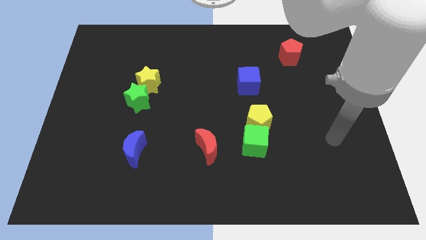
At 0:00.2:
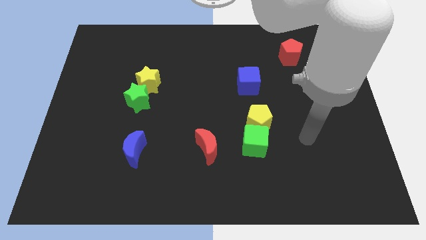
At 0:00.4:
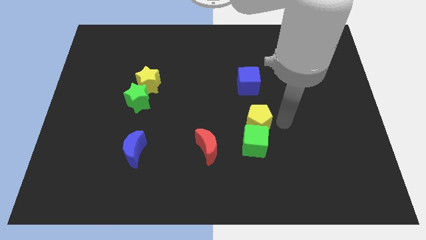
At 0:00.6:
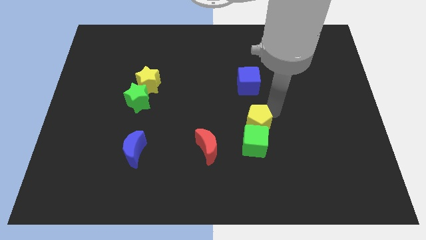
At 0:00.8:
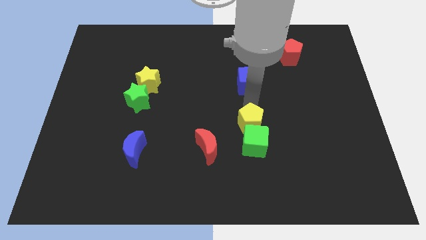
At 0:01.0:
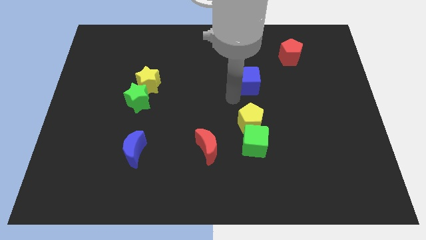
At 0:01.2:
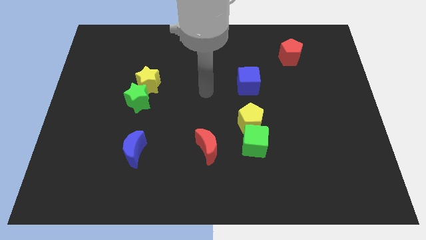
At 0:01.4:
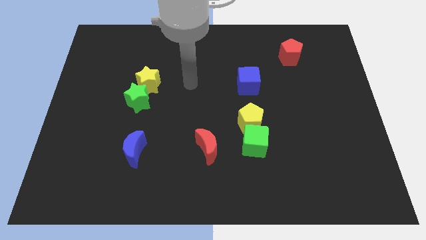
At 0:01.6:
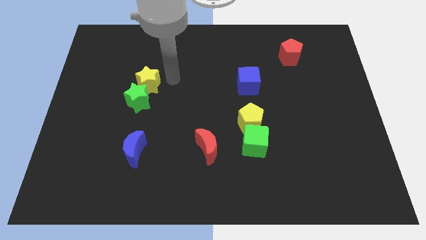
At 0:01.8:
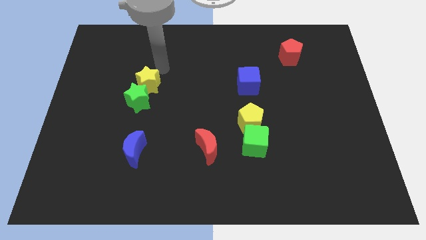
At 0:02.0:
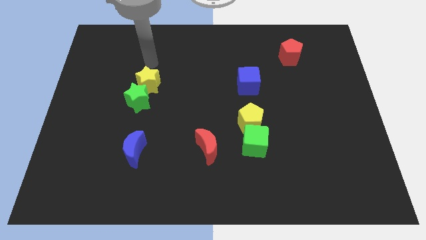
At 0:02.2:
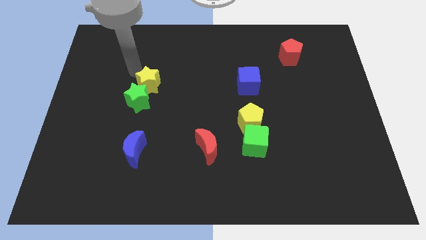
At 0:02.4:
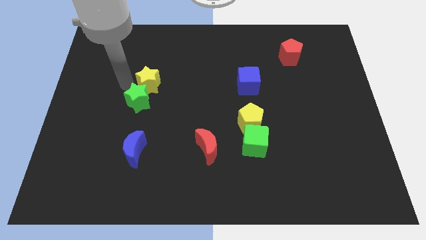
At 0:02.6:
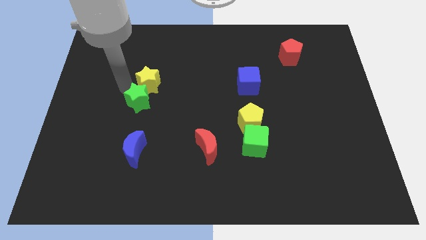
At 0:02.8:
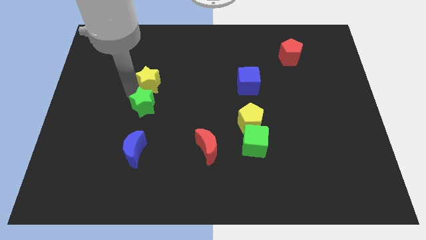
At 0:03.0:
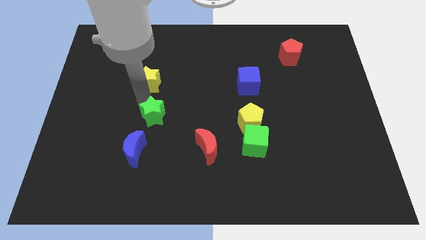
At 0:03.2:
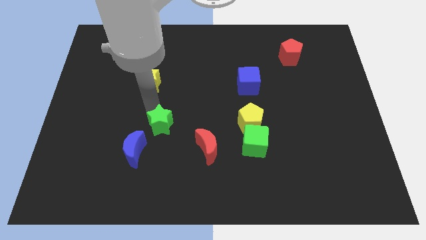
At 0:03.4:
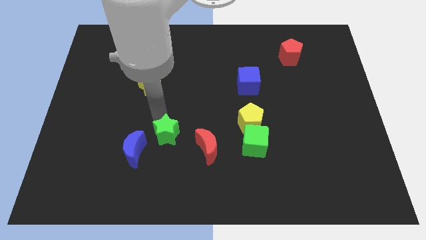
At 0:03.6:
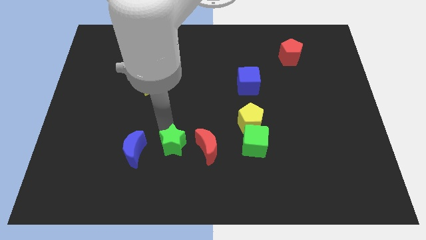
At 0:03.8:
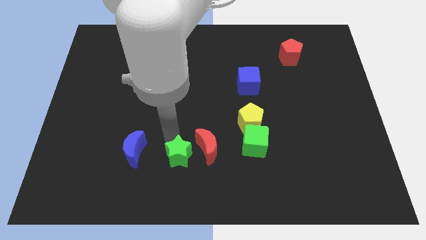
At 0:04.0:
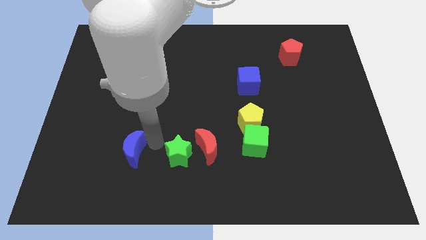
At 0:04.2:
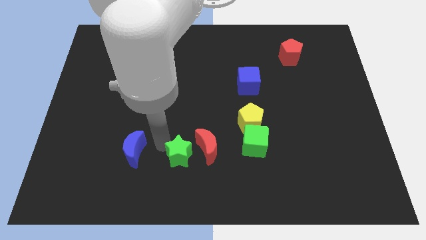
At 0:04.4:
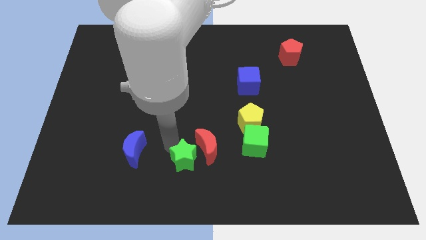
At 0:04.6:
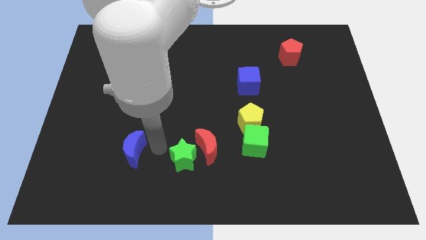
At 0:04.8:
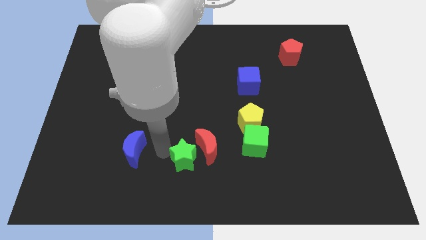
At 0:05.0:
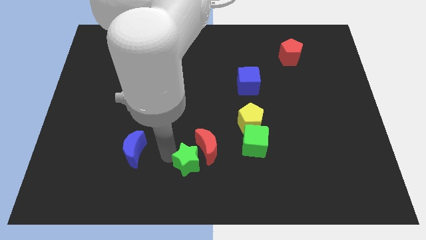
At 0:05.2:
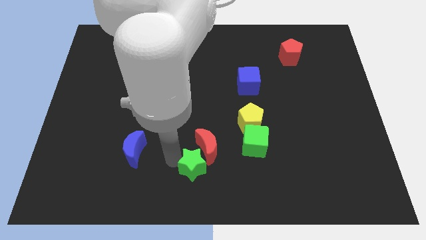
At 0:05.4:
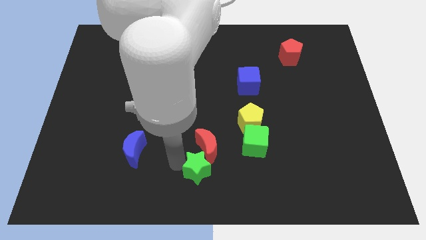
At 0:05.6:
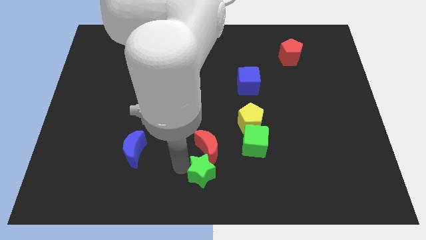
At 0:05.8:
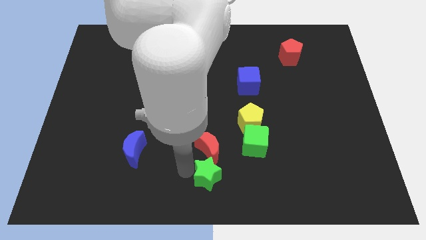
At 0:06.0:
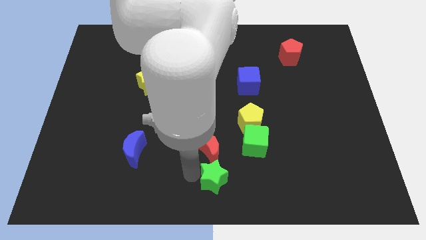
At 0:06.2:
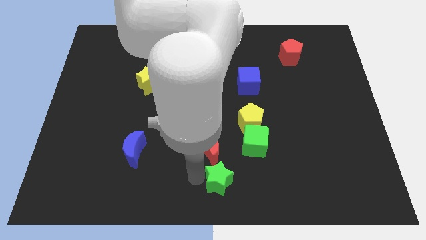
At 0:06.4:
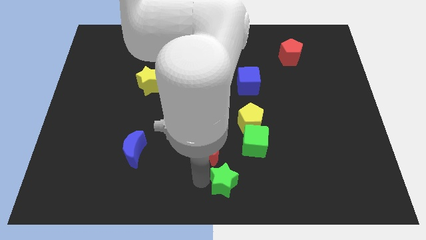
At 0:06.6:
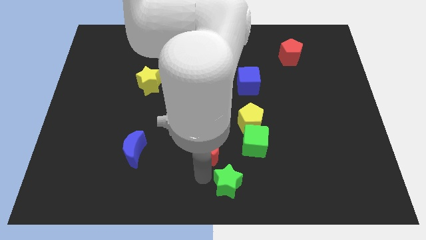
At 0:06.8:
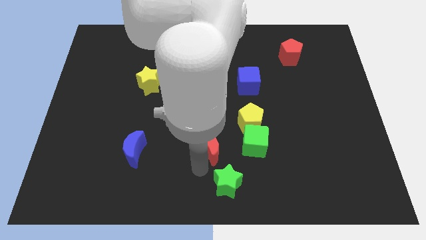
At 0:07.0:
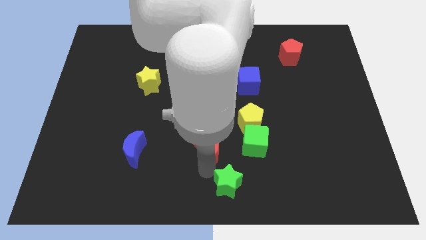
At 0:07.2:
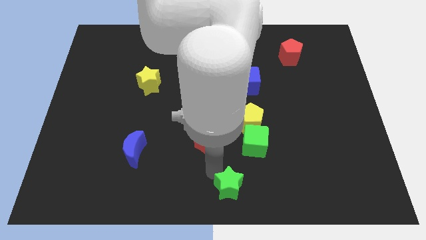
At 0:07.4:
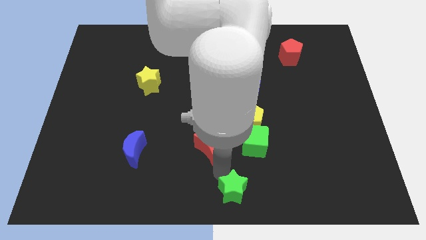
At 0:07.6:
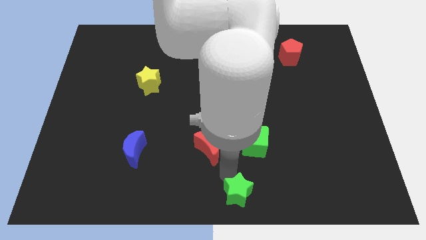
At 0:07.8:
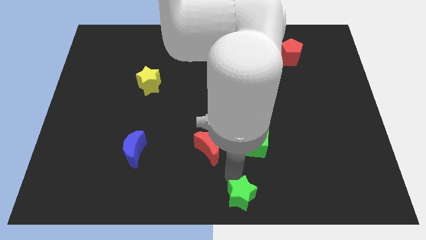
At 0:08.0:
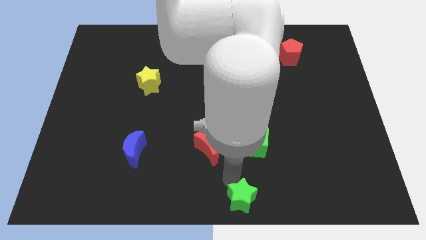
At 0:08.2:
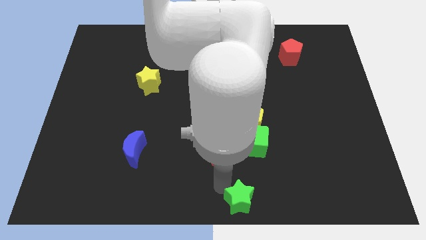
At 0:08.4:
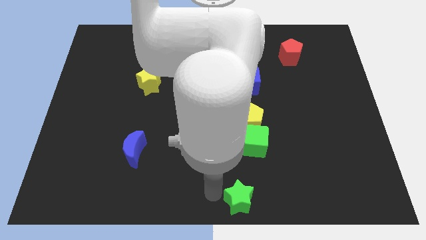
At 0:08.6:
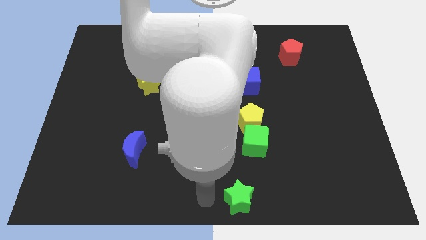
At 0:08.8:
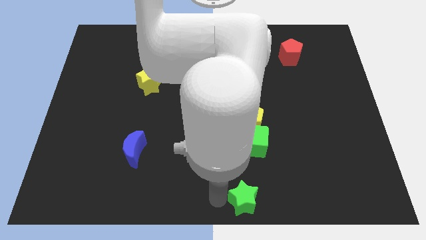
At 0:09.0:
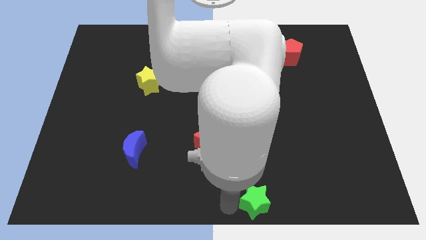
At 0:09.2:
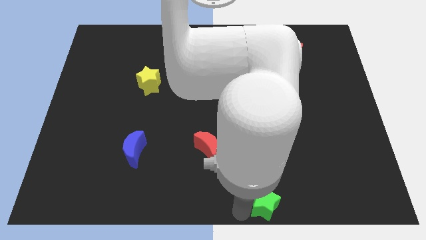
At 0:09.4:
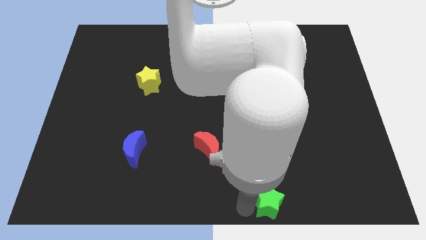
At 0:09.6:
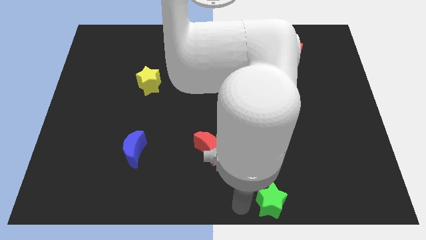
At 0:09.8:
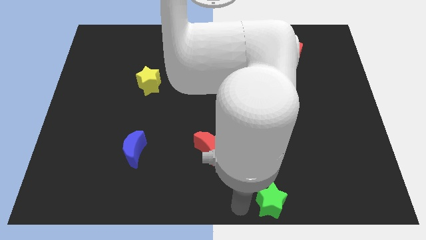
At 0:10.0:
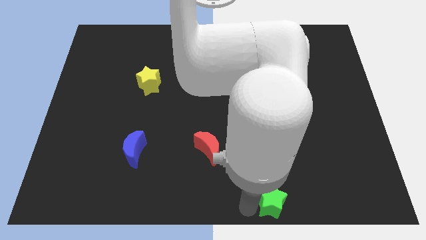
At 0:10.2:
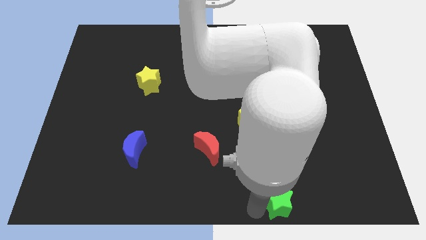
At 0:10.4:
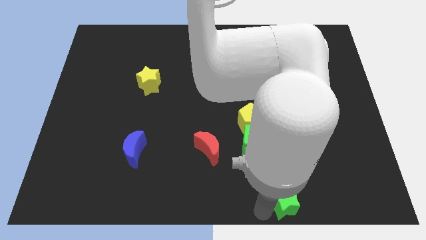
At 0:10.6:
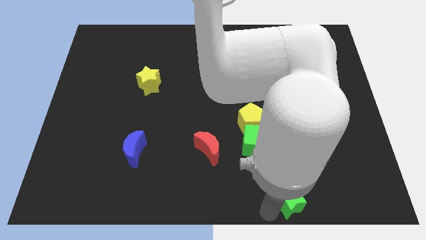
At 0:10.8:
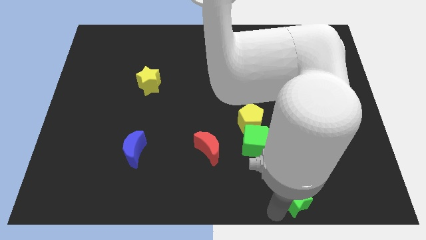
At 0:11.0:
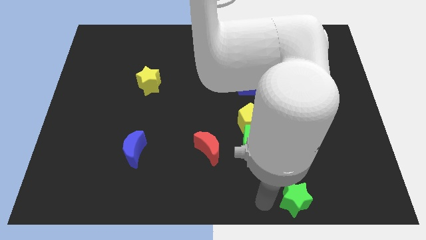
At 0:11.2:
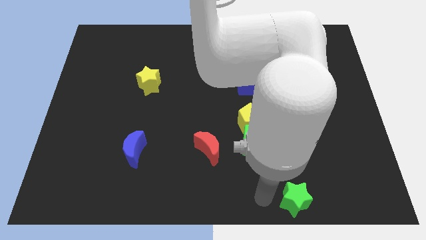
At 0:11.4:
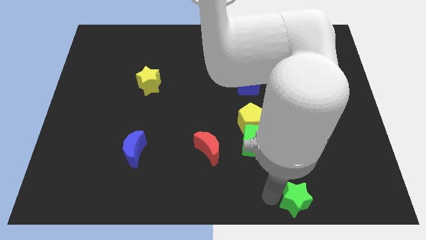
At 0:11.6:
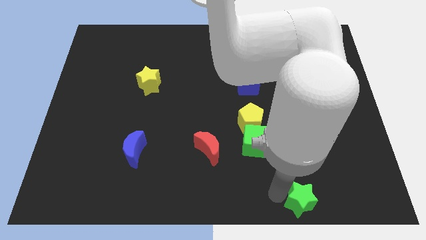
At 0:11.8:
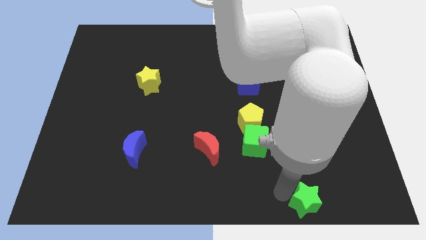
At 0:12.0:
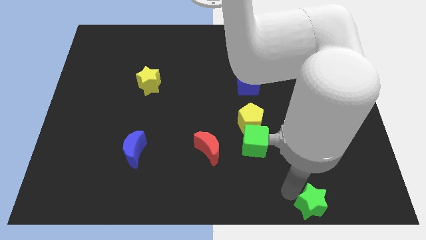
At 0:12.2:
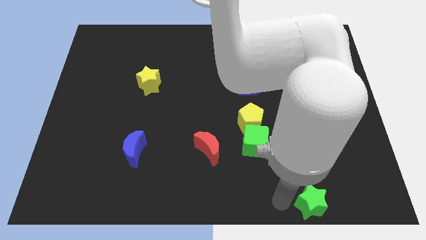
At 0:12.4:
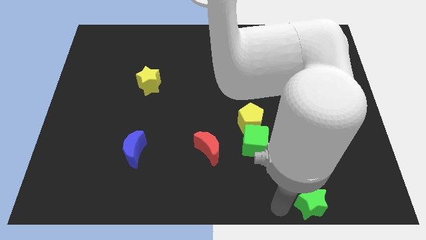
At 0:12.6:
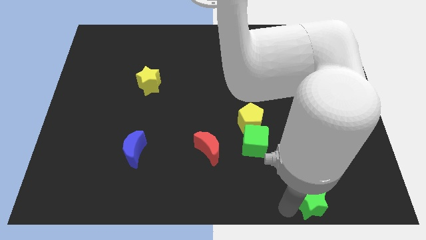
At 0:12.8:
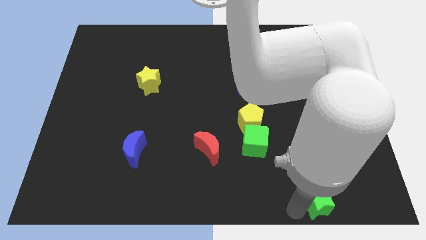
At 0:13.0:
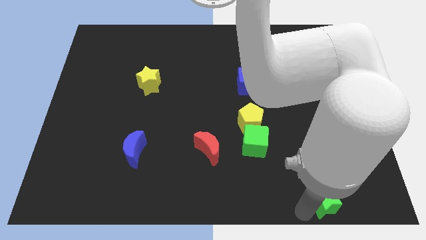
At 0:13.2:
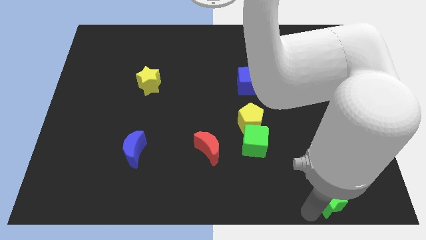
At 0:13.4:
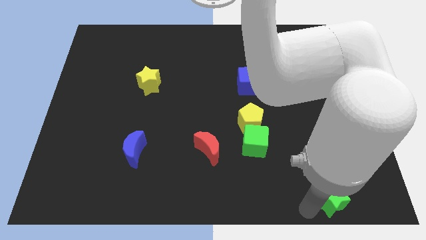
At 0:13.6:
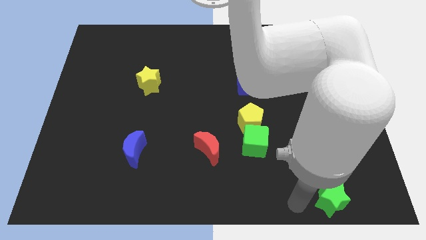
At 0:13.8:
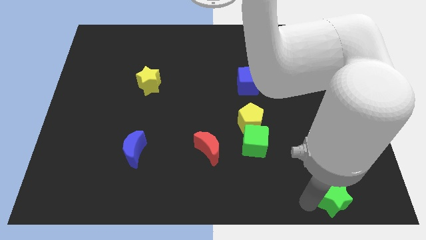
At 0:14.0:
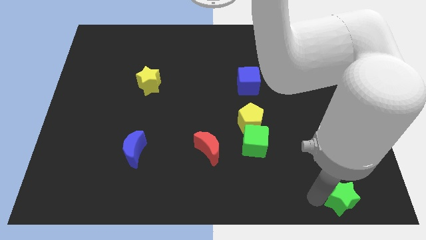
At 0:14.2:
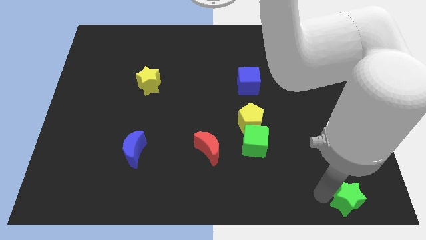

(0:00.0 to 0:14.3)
slide the green star to the bottom right of the board
